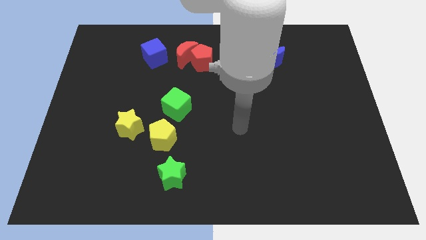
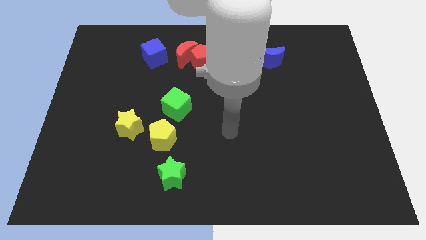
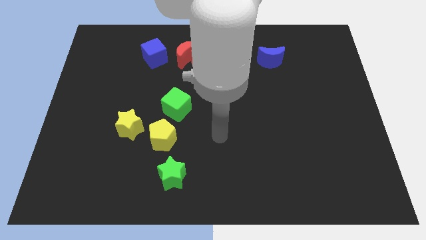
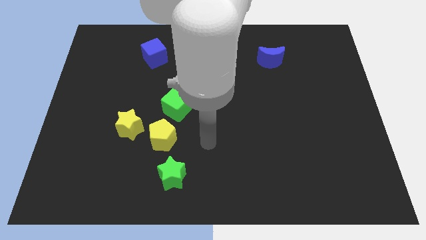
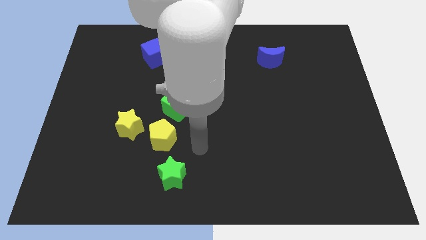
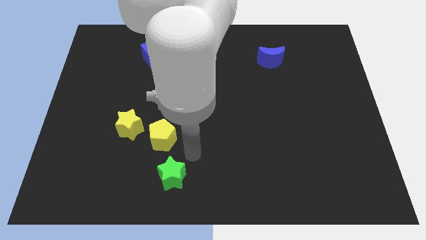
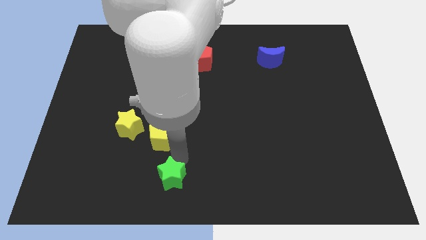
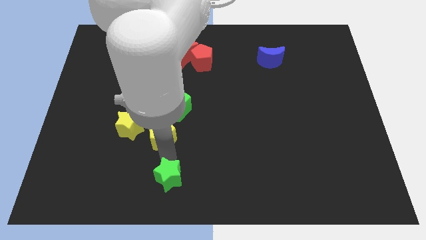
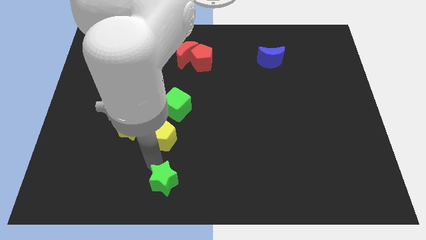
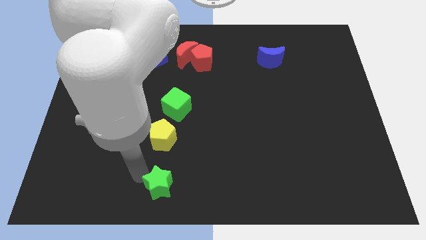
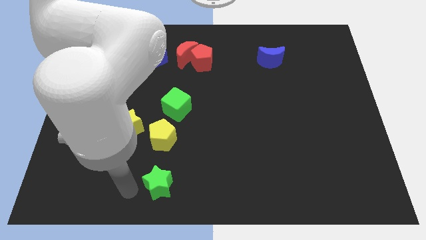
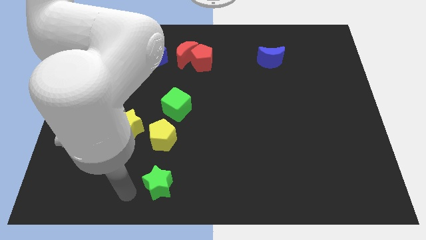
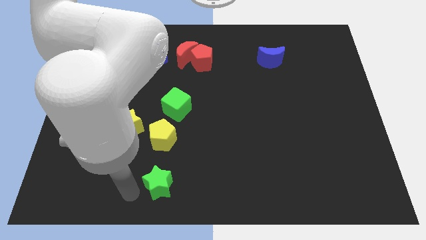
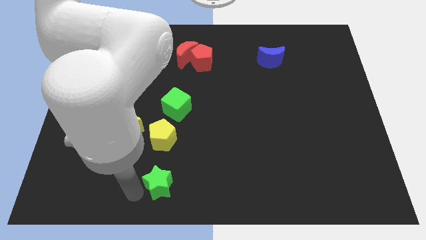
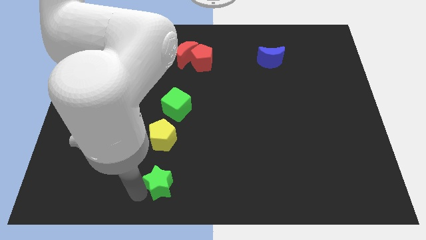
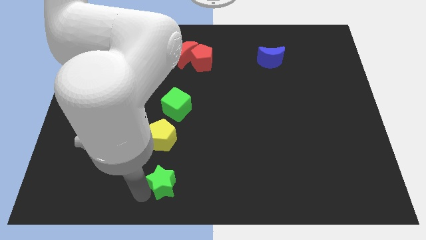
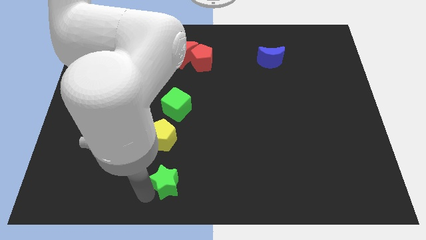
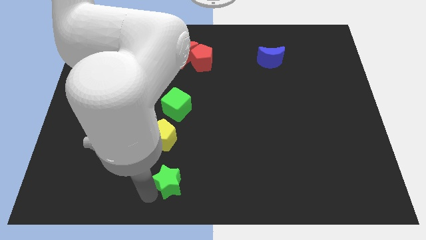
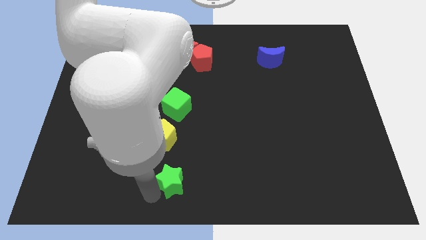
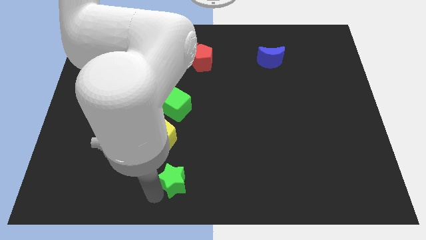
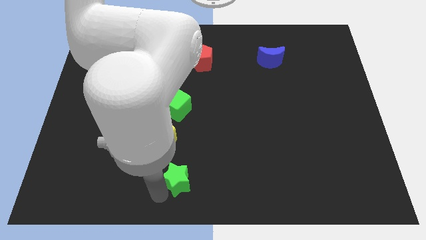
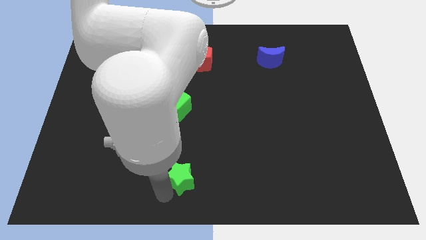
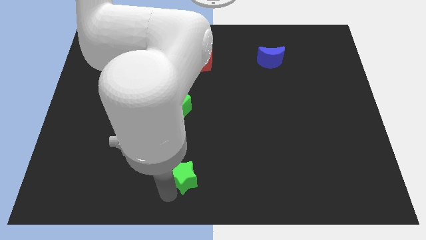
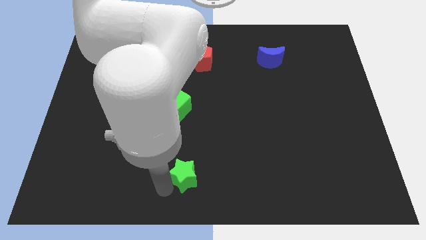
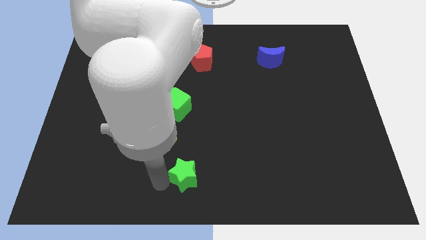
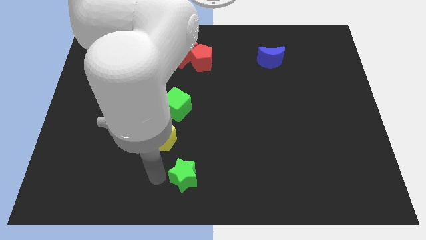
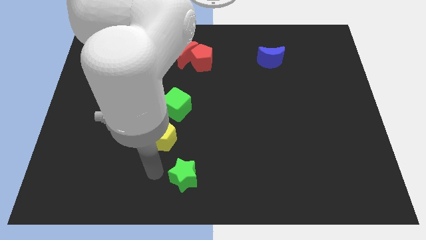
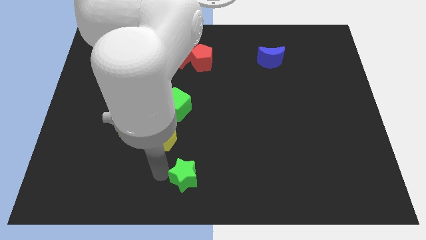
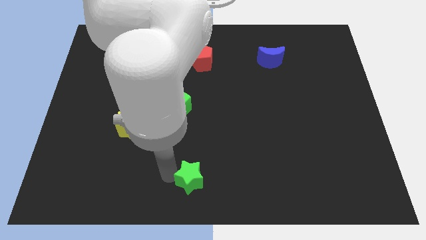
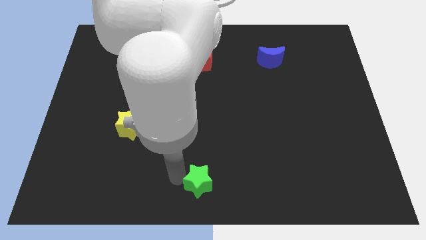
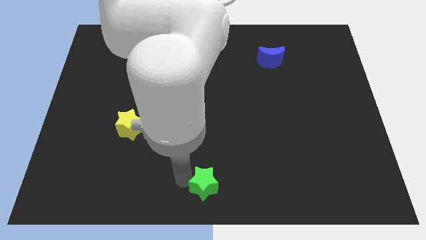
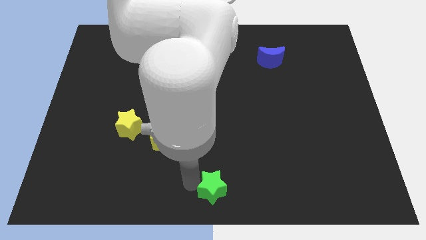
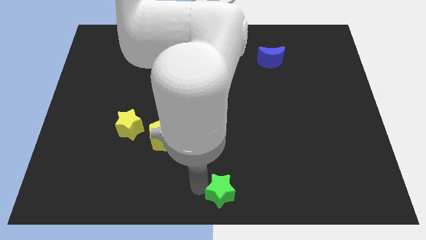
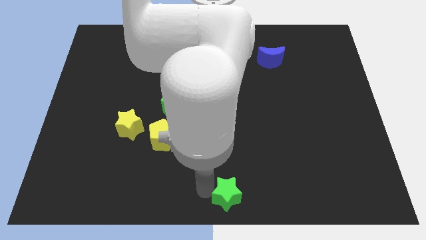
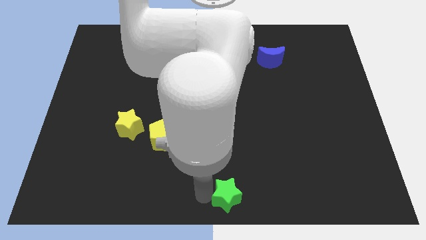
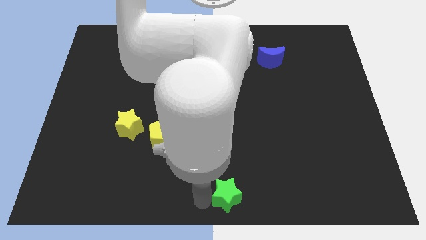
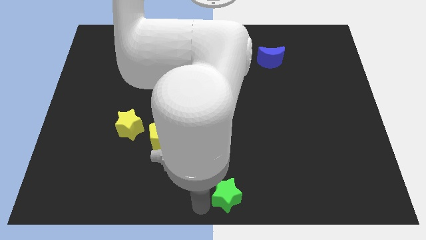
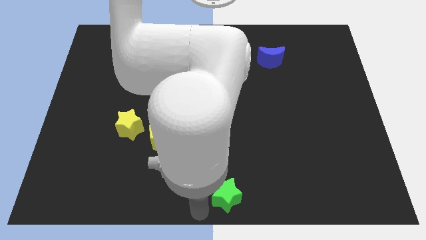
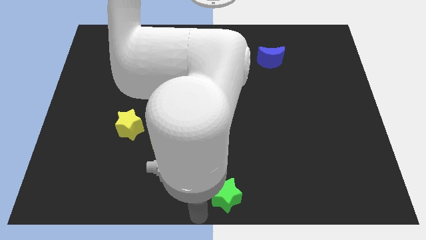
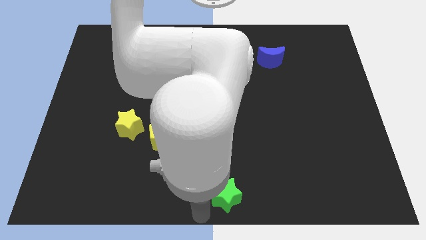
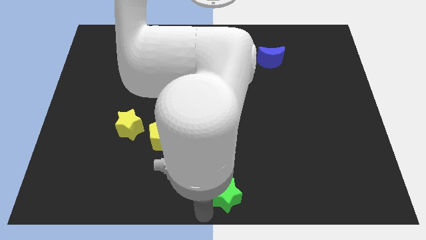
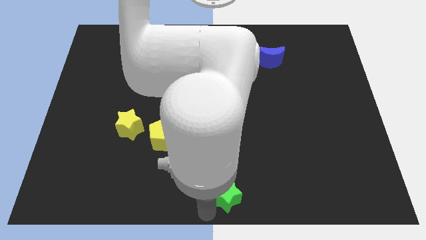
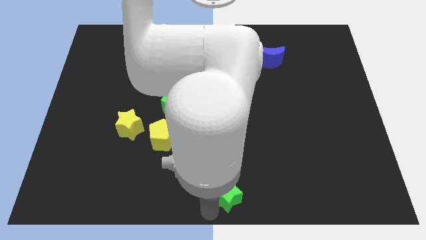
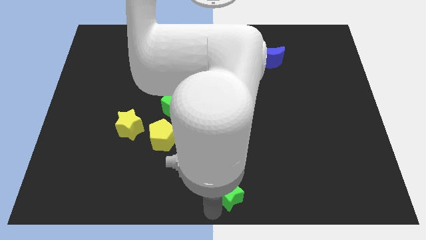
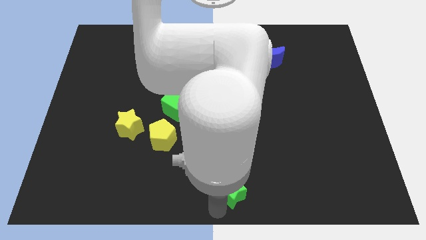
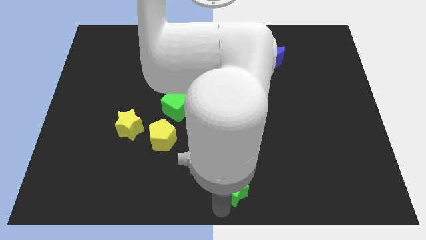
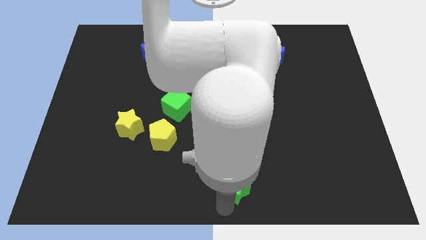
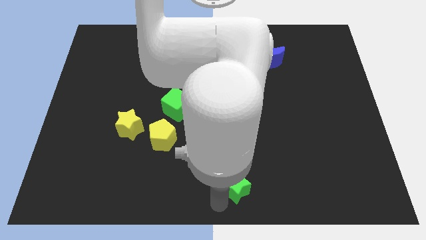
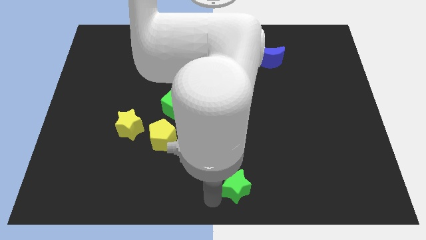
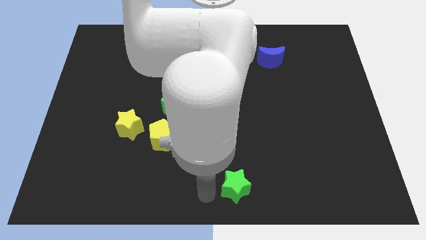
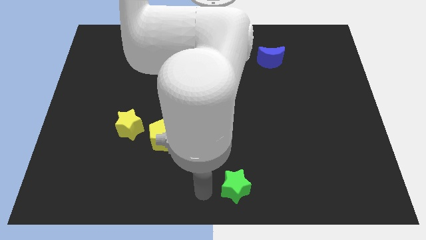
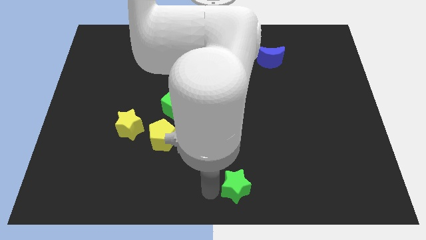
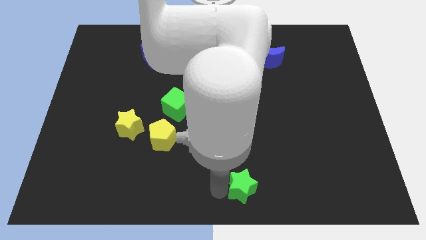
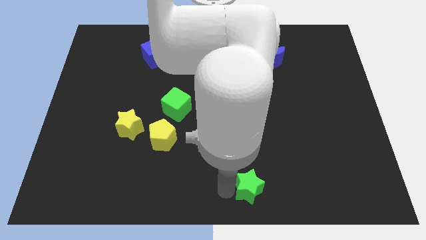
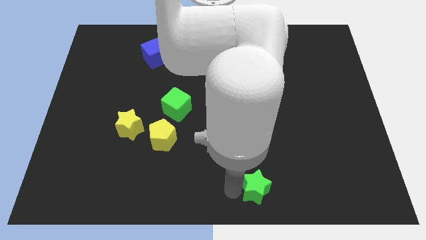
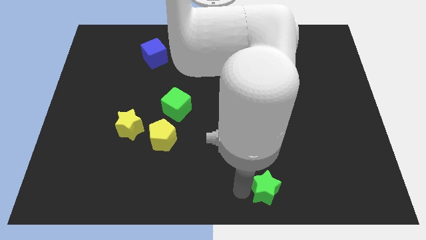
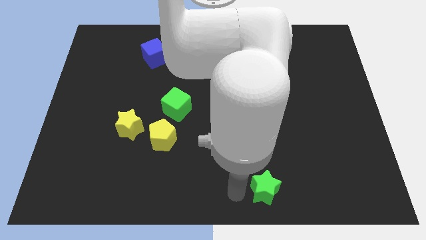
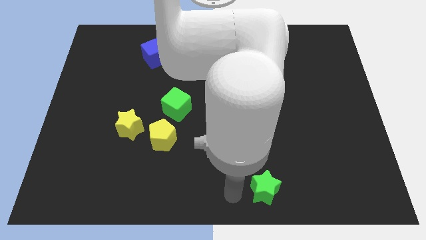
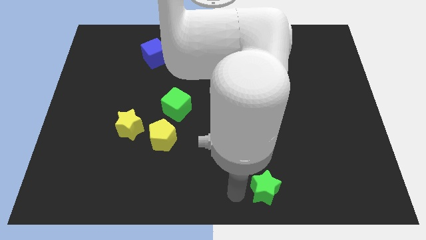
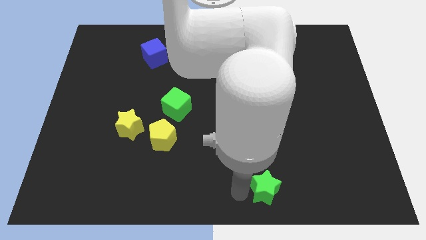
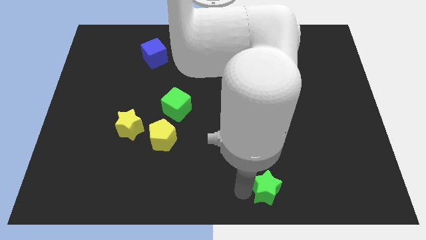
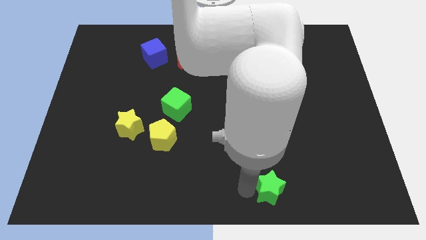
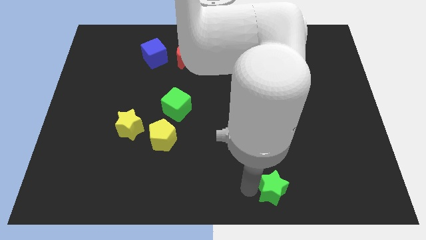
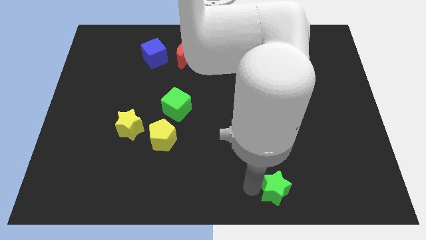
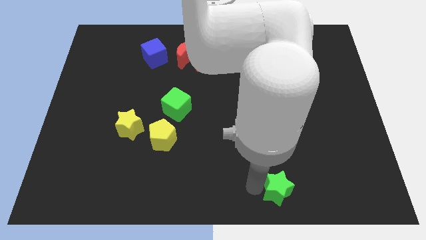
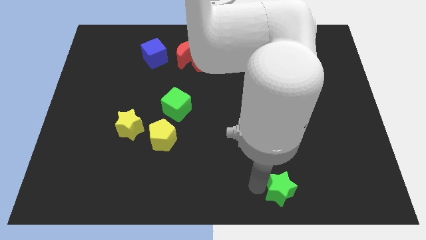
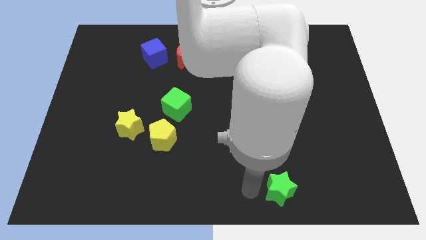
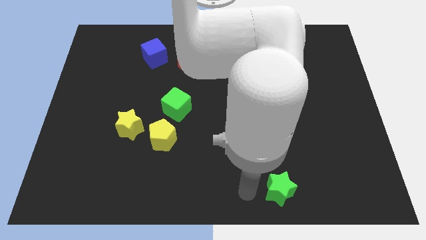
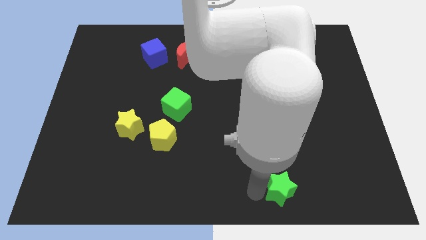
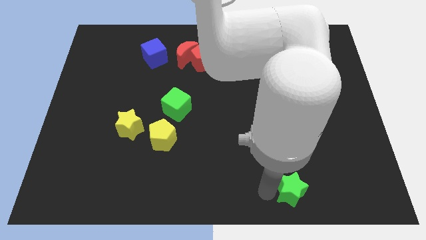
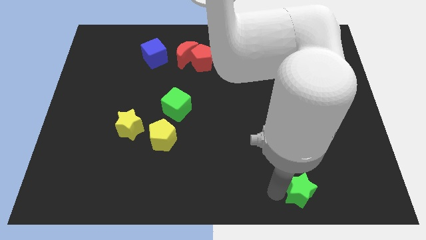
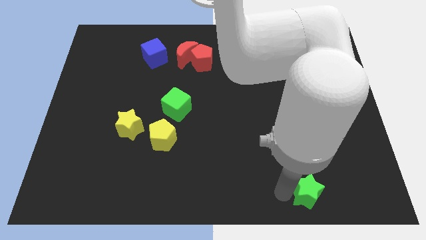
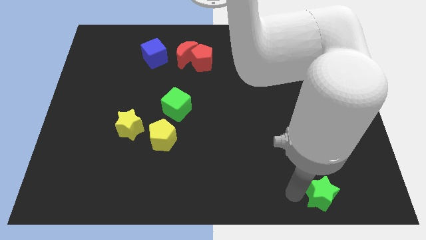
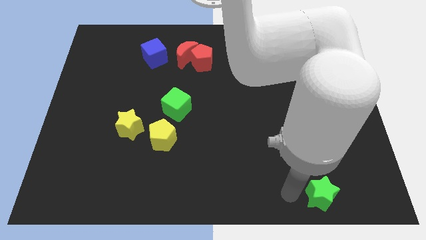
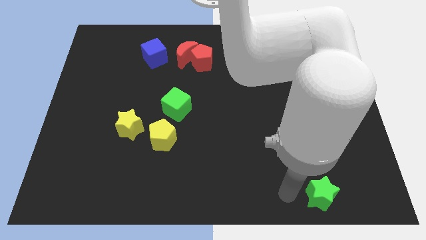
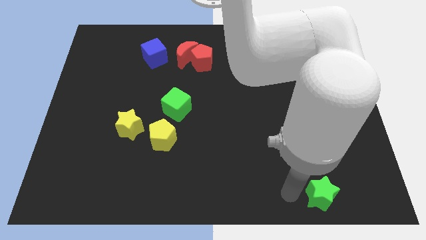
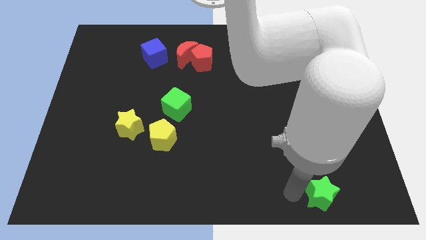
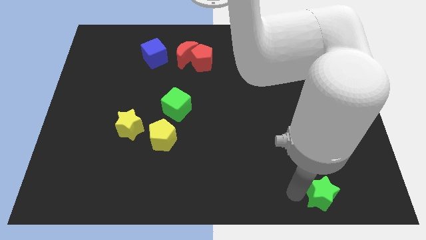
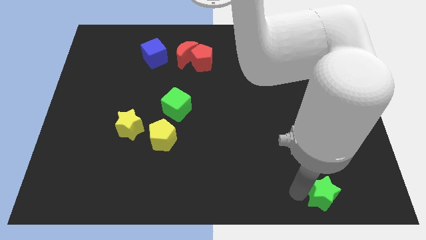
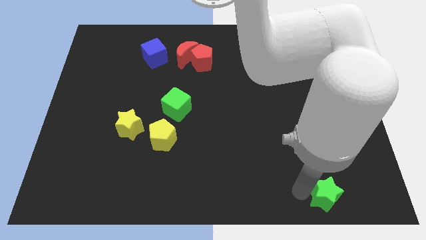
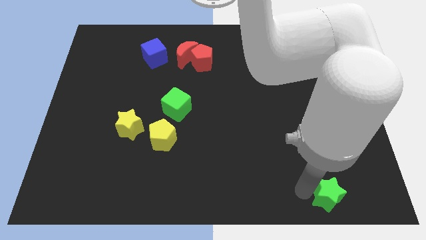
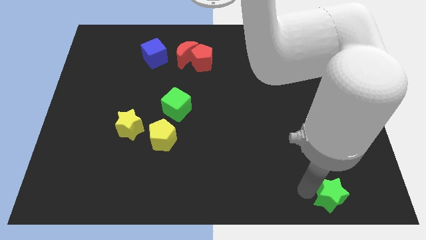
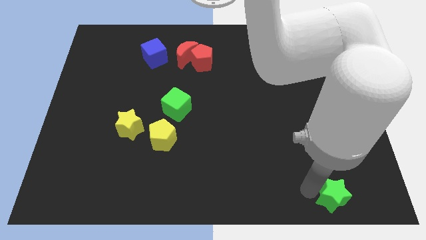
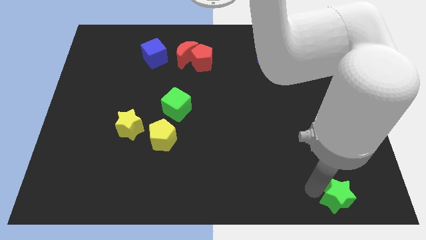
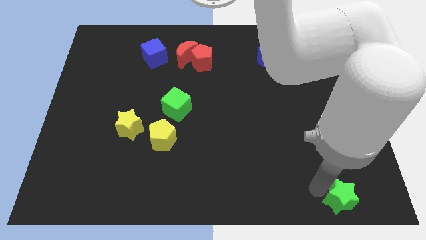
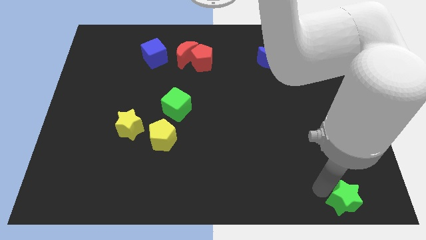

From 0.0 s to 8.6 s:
put the green star to the bottom right corner

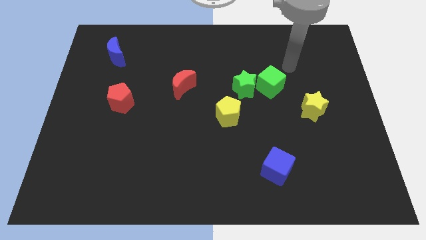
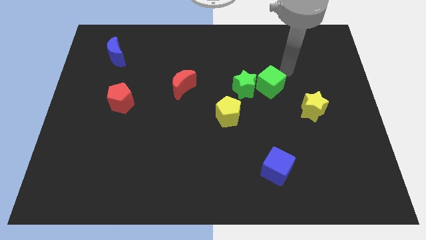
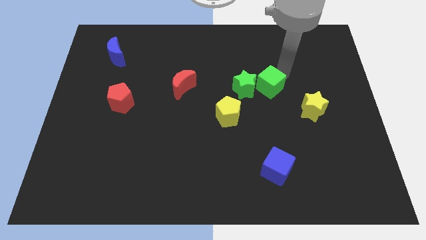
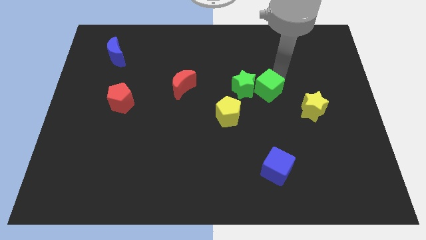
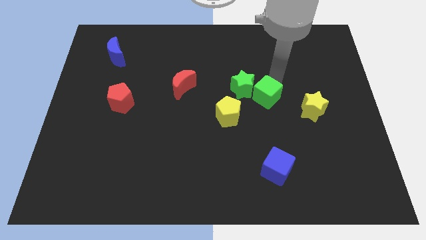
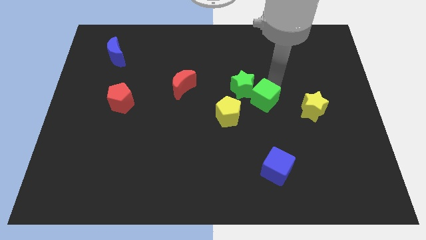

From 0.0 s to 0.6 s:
slide the green cube to the center
